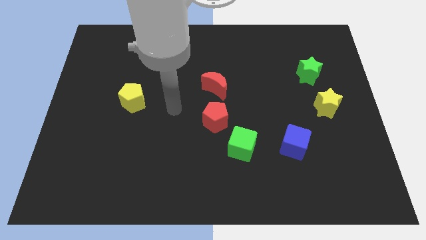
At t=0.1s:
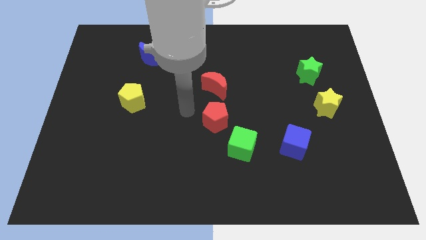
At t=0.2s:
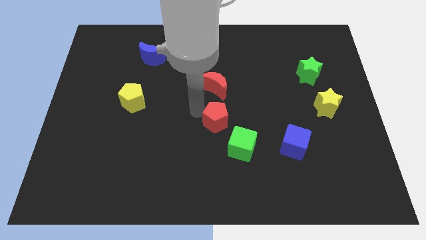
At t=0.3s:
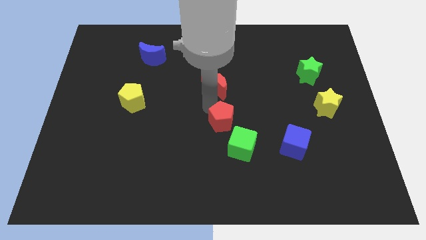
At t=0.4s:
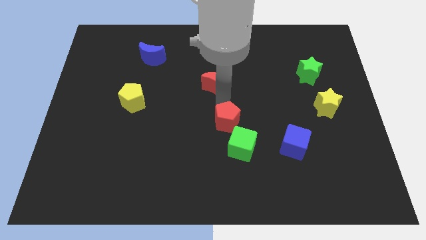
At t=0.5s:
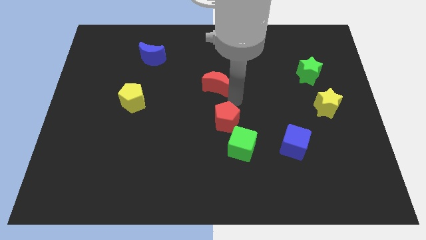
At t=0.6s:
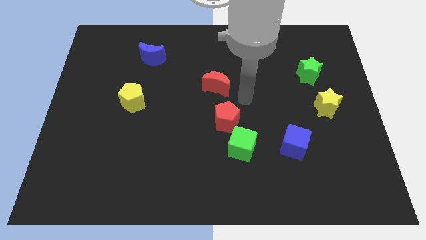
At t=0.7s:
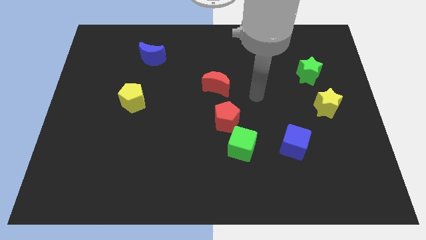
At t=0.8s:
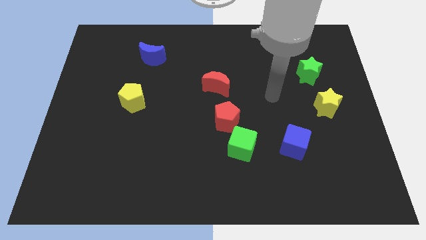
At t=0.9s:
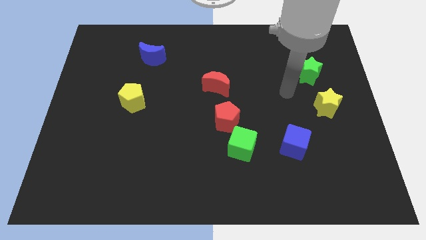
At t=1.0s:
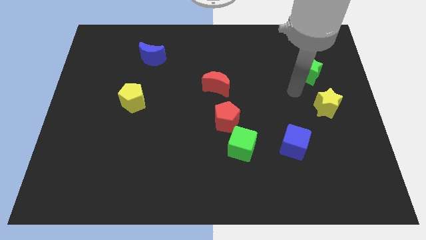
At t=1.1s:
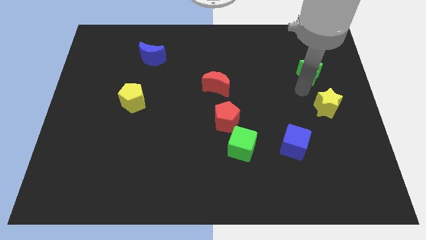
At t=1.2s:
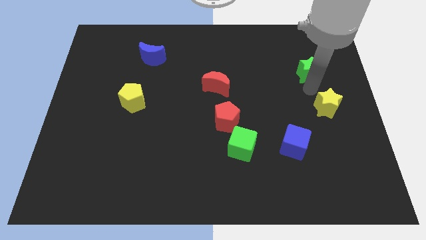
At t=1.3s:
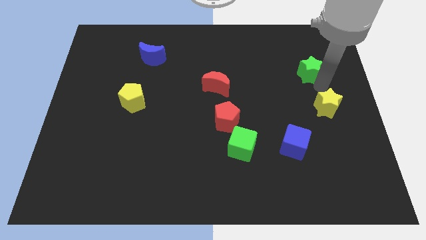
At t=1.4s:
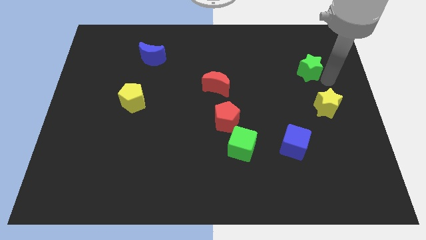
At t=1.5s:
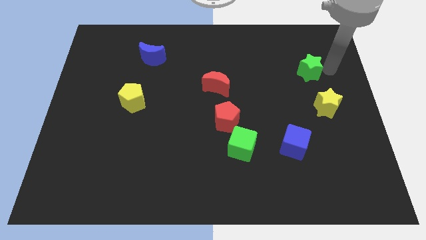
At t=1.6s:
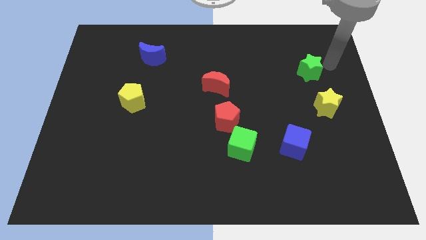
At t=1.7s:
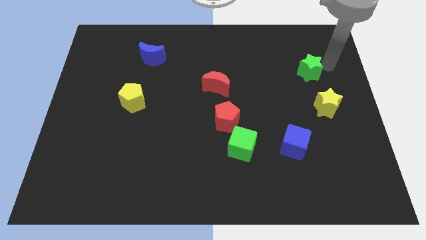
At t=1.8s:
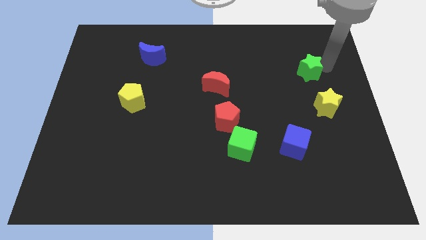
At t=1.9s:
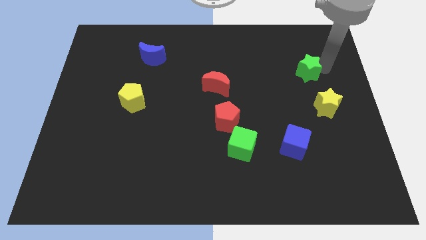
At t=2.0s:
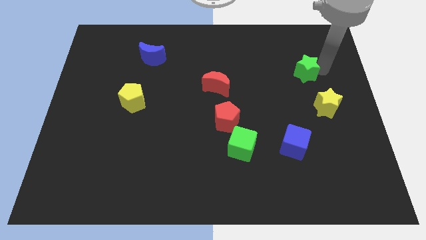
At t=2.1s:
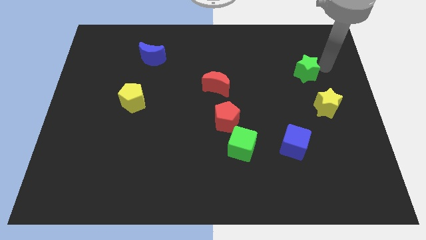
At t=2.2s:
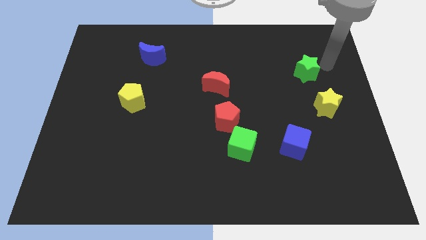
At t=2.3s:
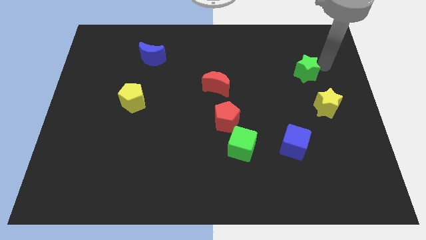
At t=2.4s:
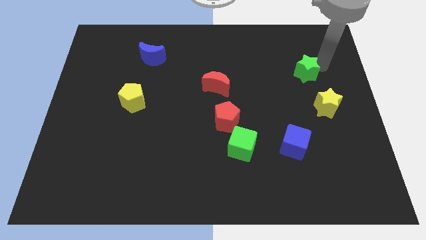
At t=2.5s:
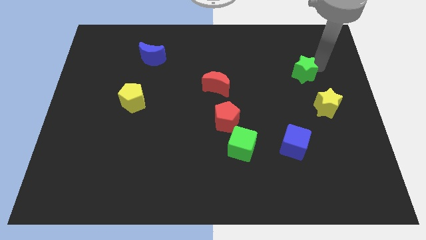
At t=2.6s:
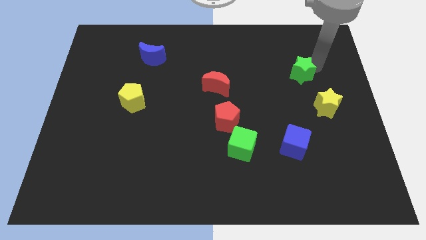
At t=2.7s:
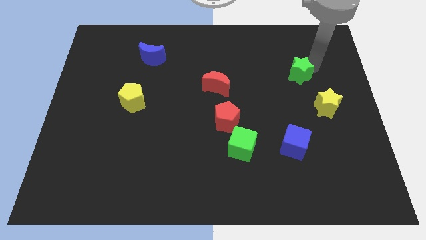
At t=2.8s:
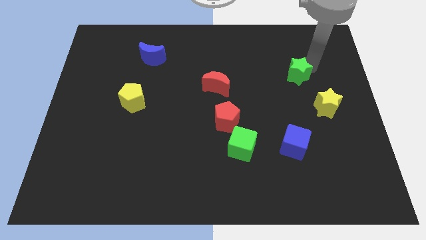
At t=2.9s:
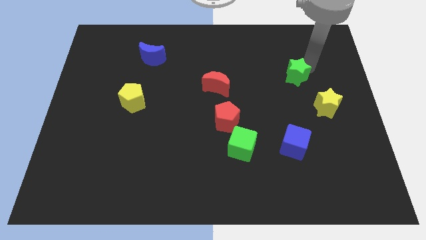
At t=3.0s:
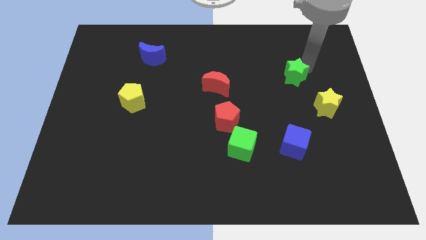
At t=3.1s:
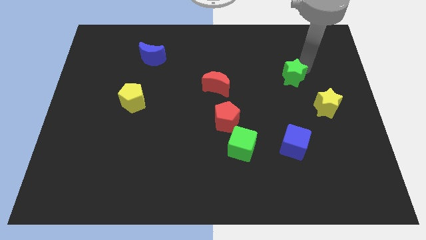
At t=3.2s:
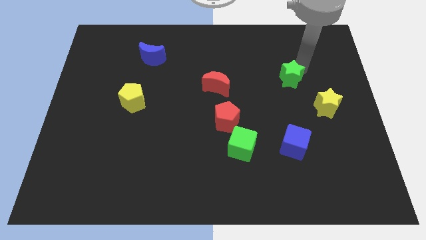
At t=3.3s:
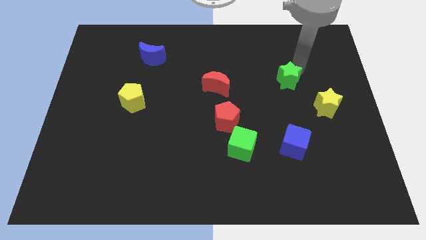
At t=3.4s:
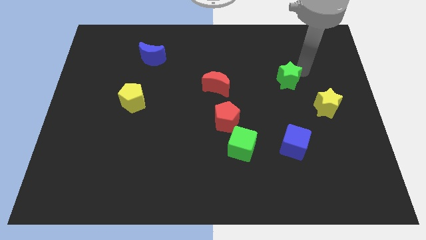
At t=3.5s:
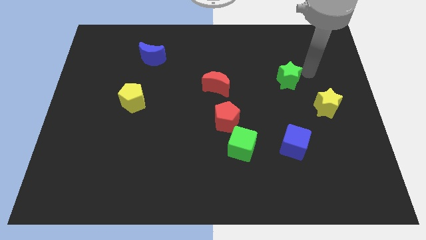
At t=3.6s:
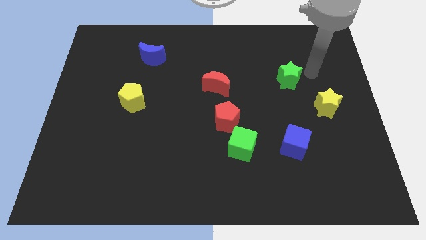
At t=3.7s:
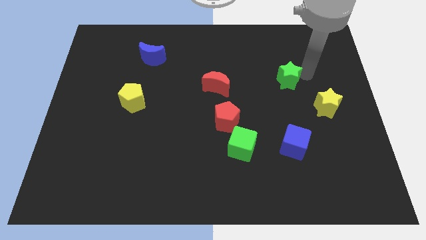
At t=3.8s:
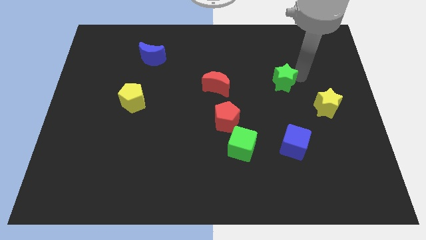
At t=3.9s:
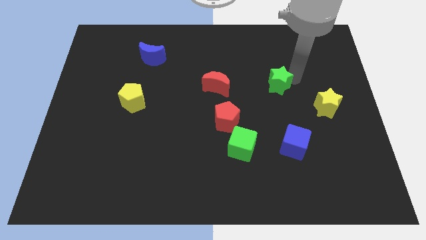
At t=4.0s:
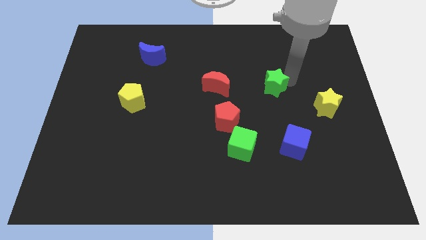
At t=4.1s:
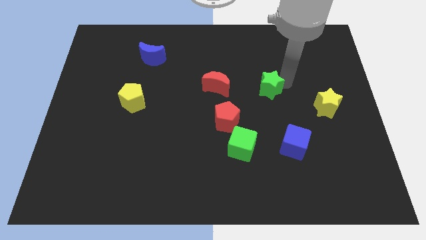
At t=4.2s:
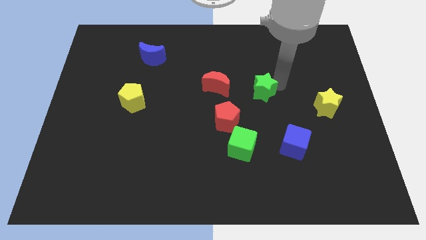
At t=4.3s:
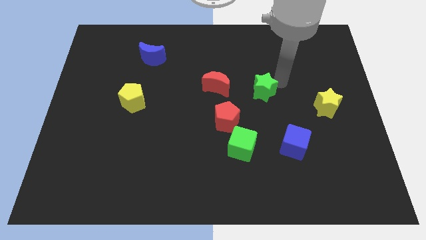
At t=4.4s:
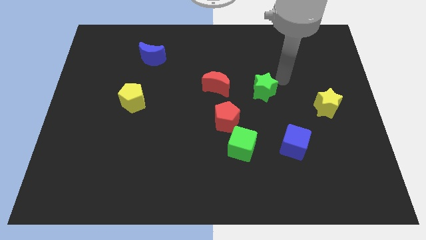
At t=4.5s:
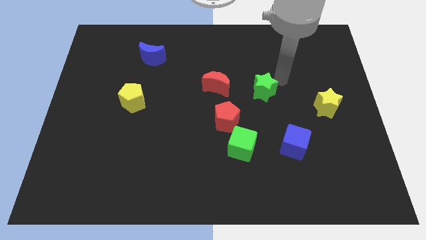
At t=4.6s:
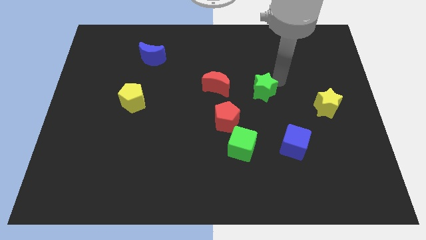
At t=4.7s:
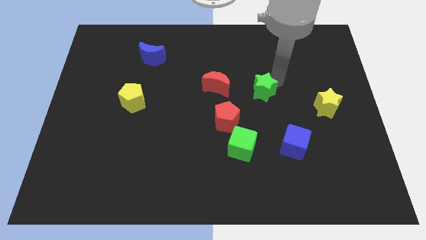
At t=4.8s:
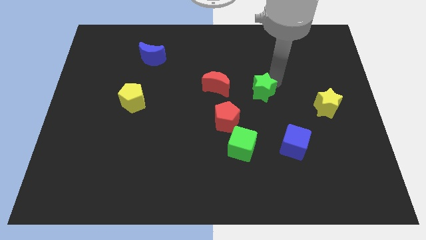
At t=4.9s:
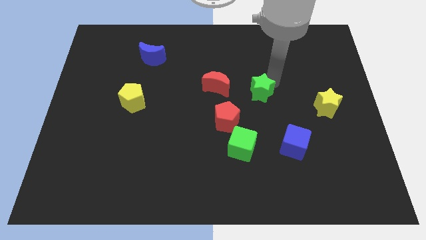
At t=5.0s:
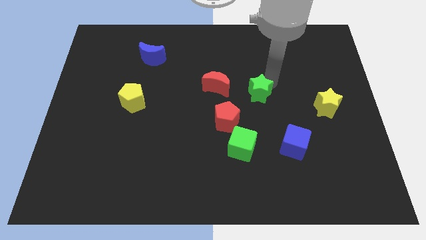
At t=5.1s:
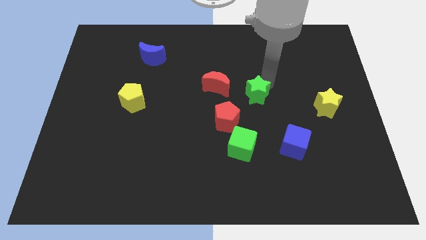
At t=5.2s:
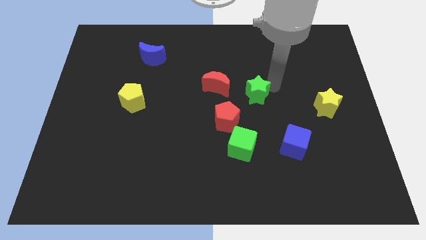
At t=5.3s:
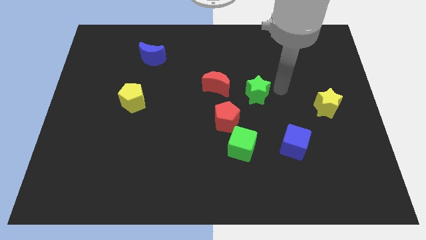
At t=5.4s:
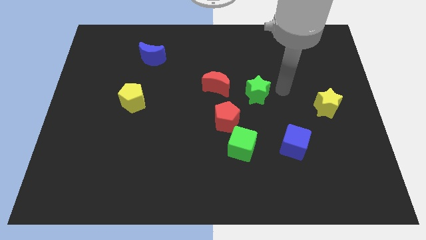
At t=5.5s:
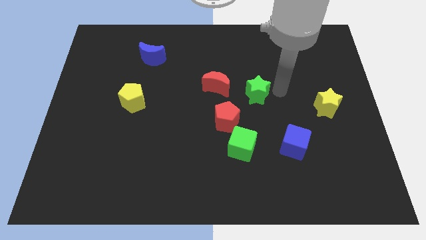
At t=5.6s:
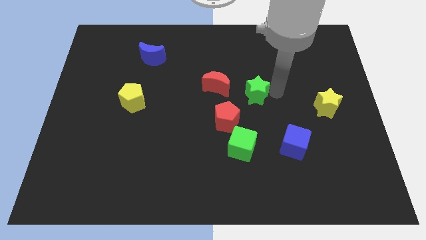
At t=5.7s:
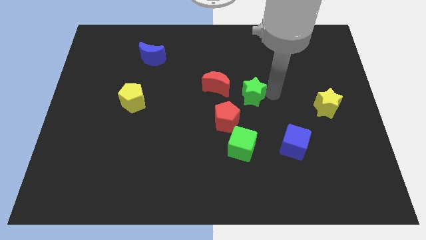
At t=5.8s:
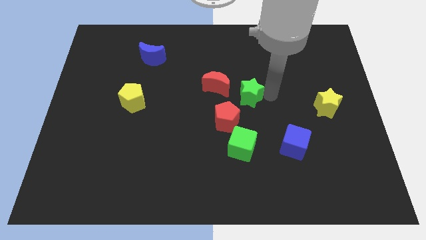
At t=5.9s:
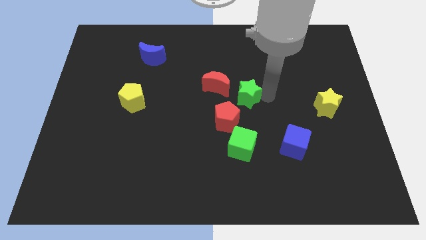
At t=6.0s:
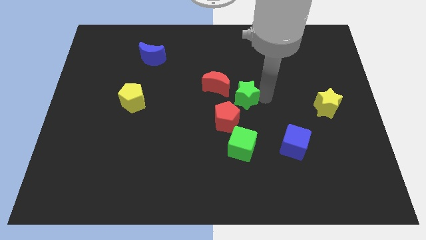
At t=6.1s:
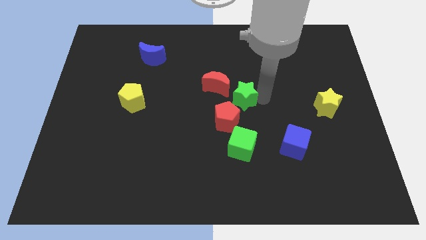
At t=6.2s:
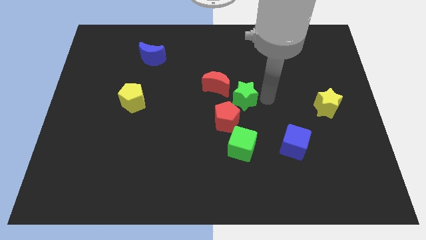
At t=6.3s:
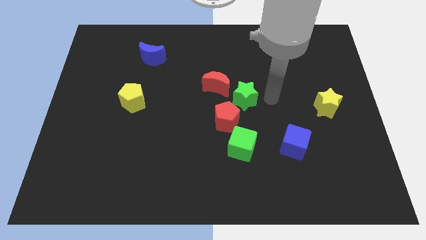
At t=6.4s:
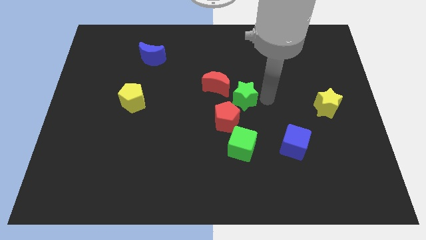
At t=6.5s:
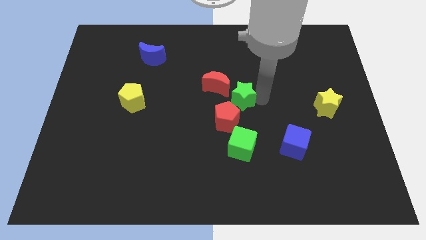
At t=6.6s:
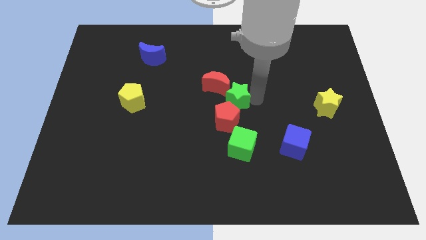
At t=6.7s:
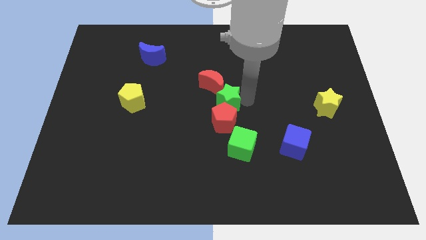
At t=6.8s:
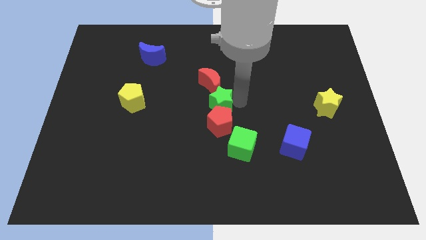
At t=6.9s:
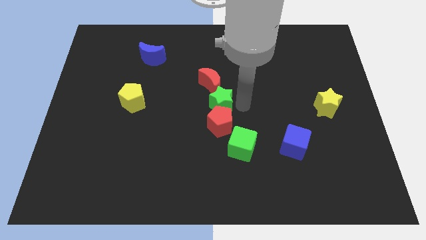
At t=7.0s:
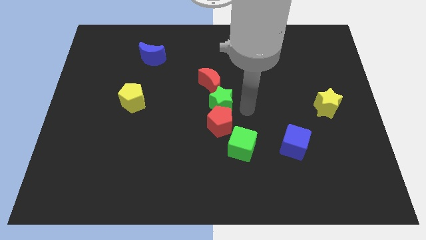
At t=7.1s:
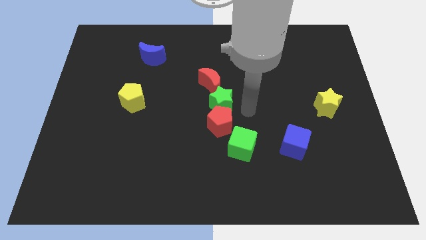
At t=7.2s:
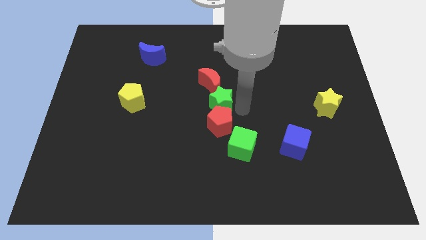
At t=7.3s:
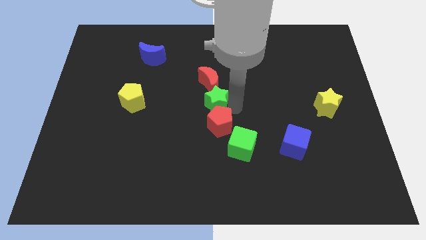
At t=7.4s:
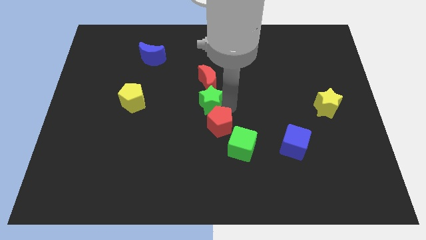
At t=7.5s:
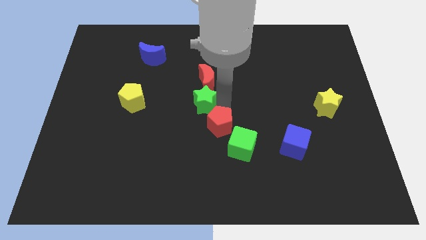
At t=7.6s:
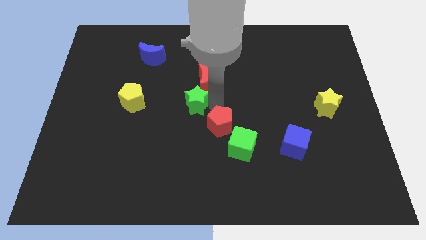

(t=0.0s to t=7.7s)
put the green star right of the yellow pentagon
